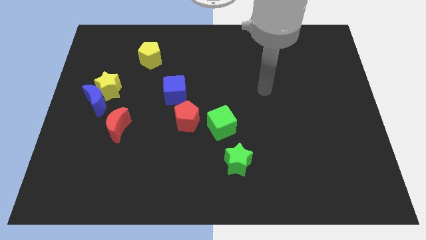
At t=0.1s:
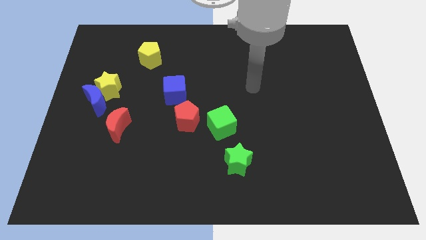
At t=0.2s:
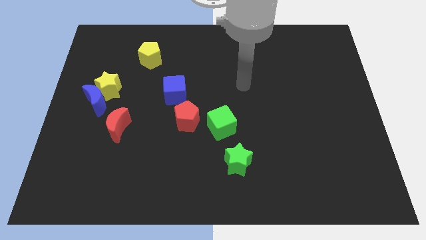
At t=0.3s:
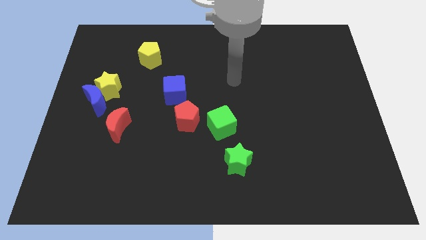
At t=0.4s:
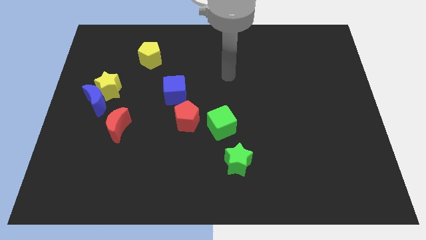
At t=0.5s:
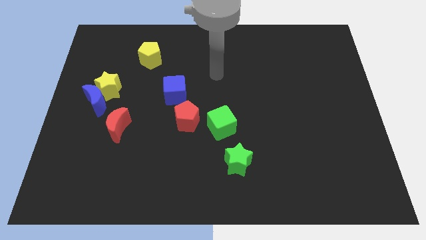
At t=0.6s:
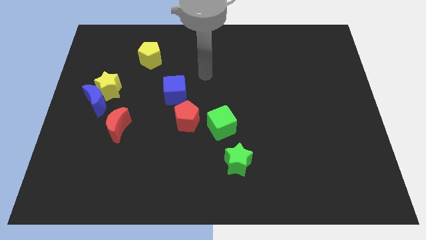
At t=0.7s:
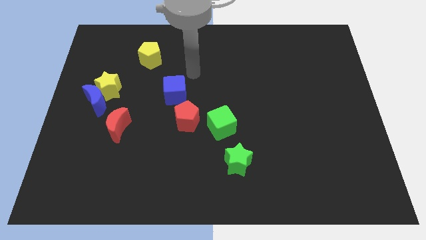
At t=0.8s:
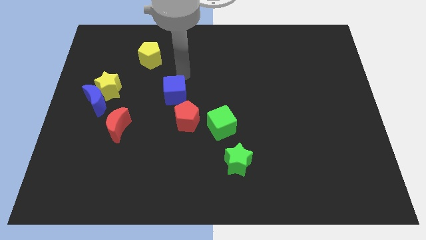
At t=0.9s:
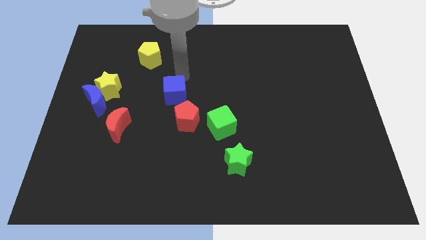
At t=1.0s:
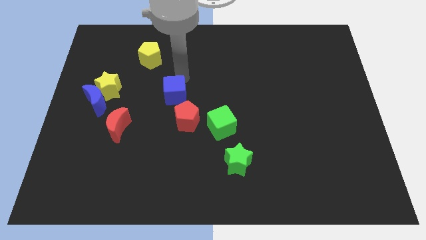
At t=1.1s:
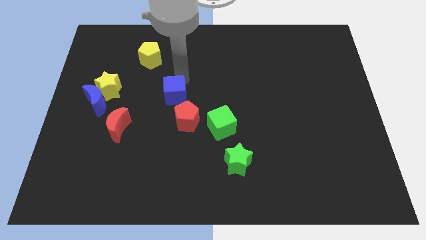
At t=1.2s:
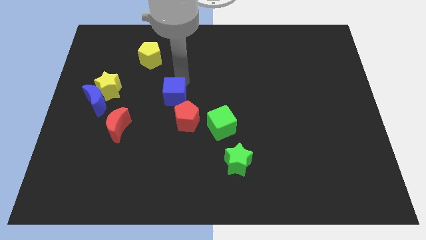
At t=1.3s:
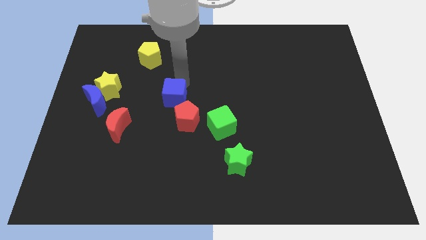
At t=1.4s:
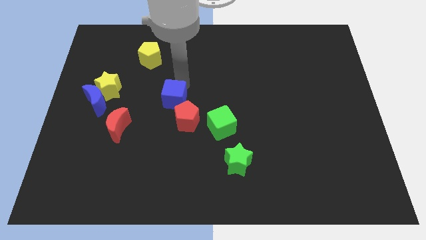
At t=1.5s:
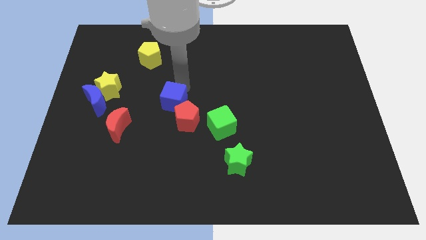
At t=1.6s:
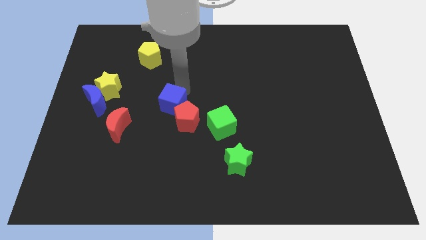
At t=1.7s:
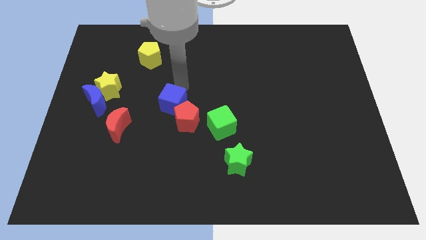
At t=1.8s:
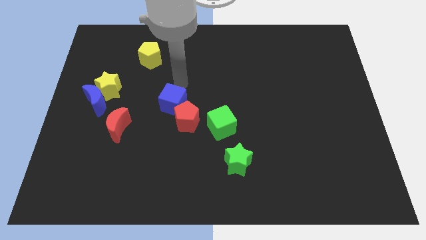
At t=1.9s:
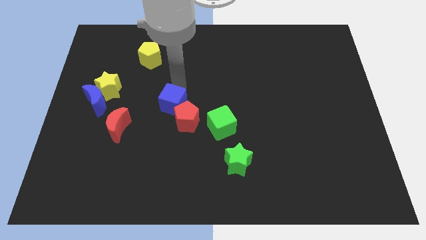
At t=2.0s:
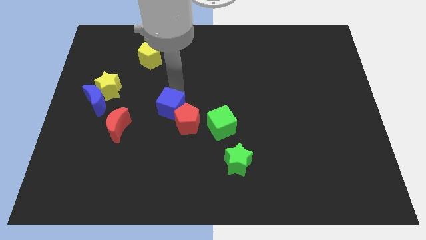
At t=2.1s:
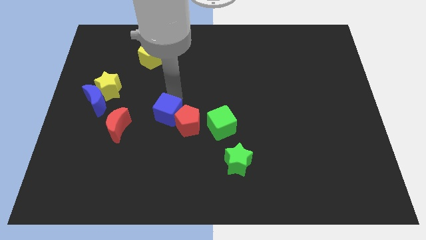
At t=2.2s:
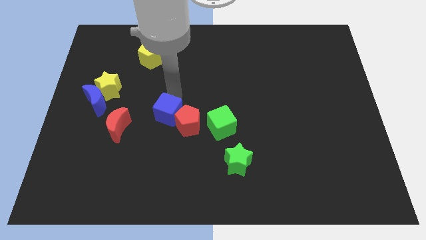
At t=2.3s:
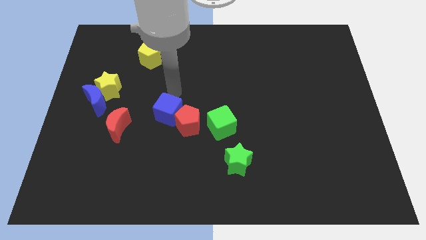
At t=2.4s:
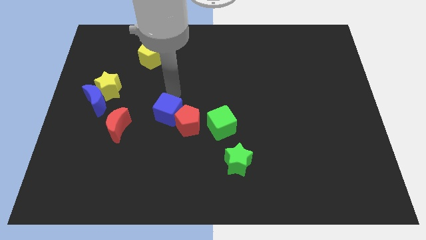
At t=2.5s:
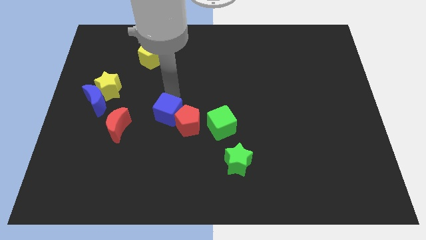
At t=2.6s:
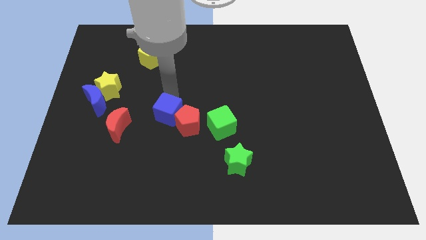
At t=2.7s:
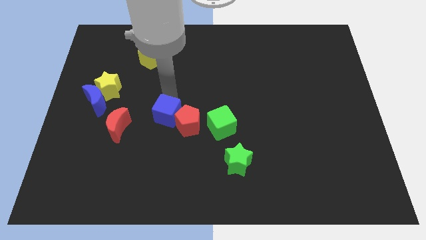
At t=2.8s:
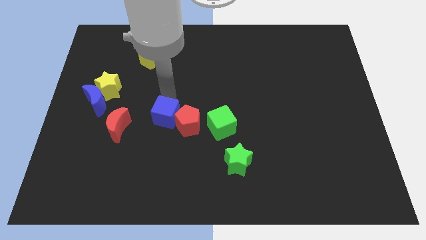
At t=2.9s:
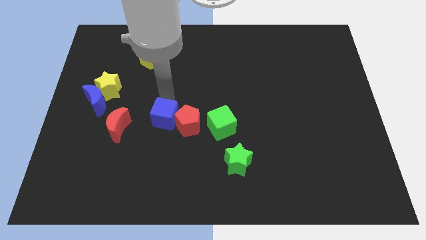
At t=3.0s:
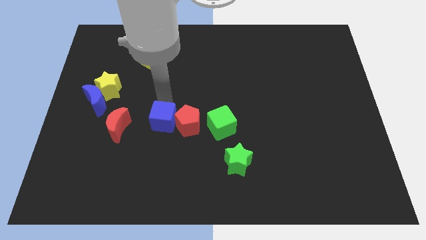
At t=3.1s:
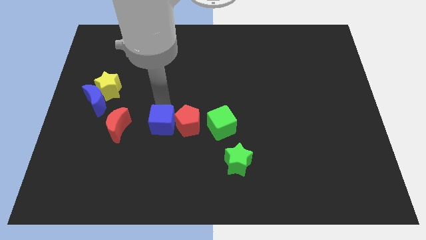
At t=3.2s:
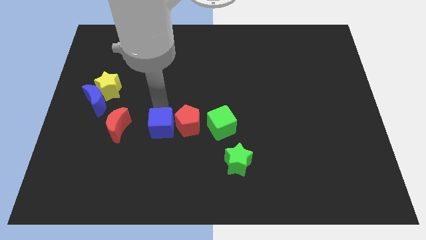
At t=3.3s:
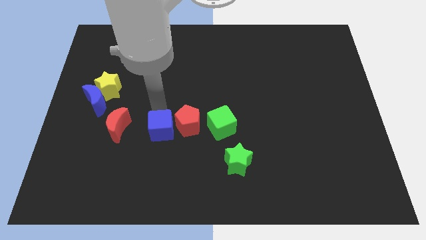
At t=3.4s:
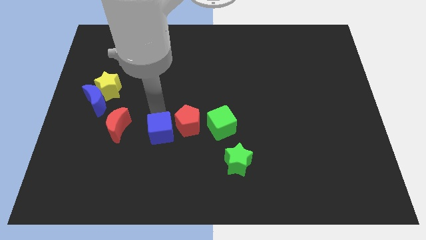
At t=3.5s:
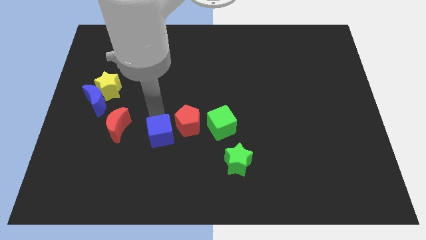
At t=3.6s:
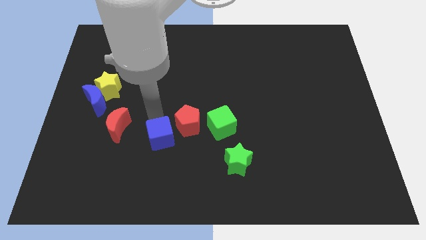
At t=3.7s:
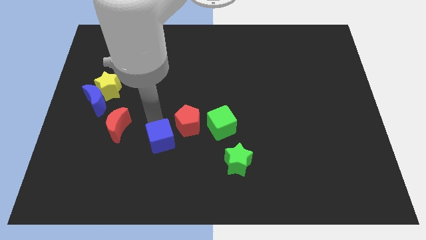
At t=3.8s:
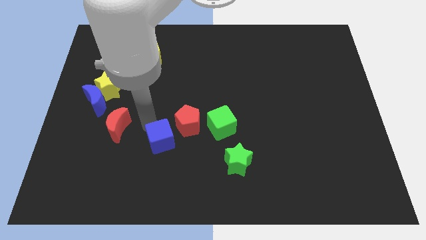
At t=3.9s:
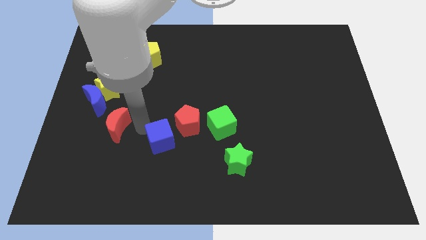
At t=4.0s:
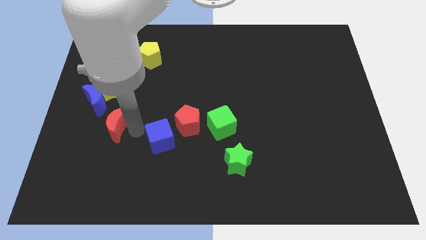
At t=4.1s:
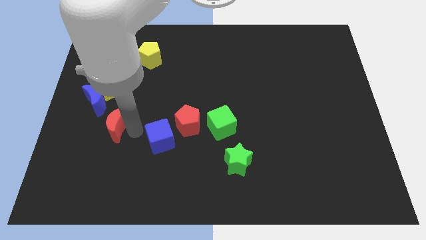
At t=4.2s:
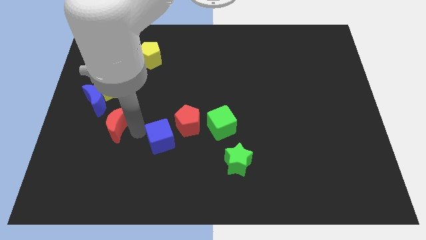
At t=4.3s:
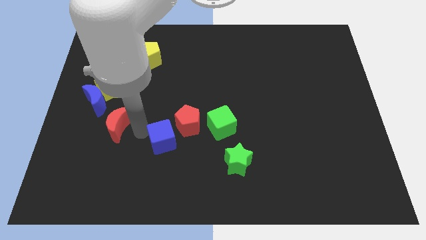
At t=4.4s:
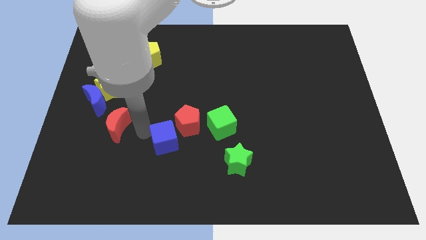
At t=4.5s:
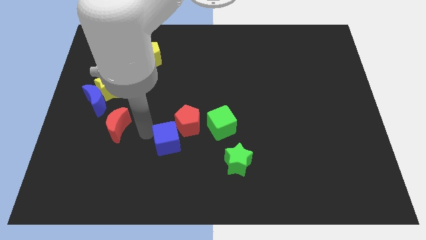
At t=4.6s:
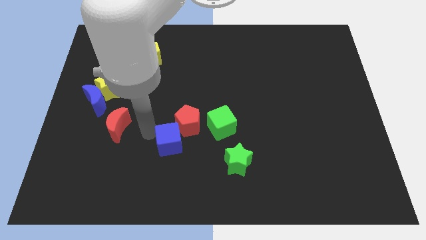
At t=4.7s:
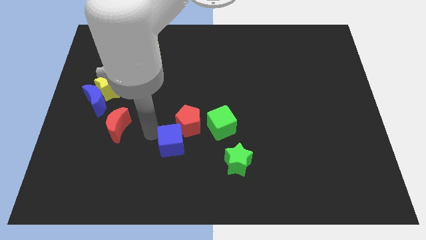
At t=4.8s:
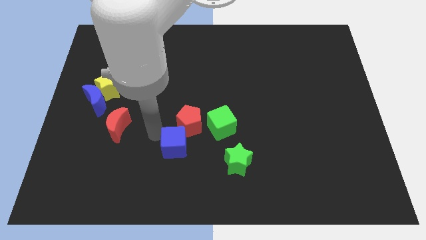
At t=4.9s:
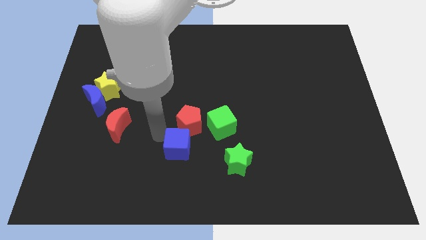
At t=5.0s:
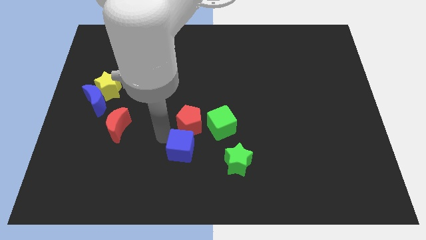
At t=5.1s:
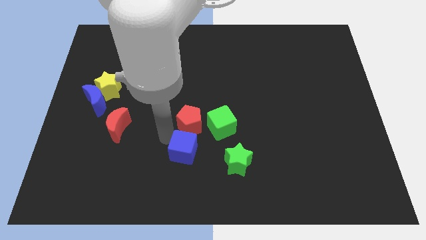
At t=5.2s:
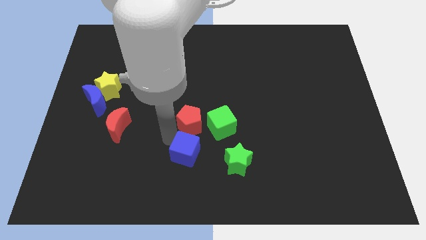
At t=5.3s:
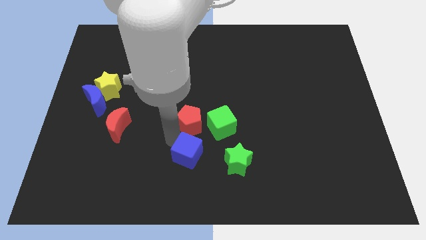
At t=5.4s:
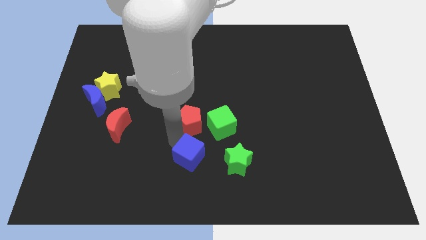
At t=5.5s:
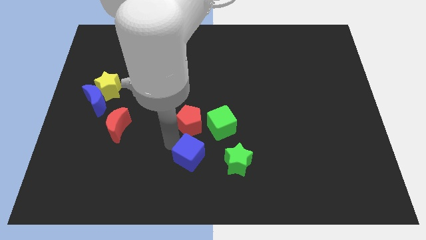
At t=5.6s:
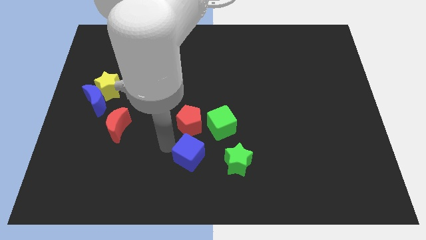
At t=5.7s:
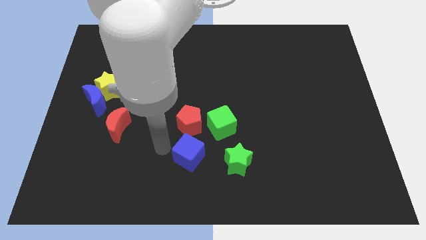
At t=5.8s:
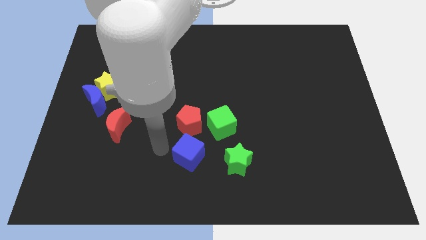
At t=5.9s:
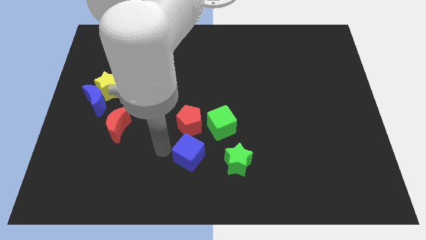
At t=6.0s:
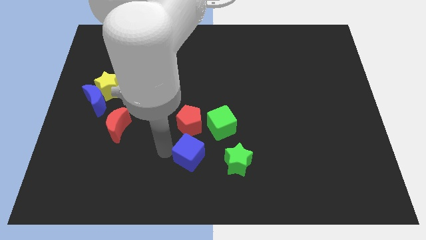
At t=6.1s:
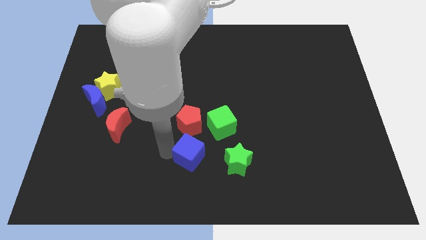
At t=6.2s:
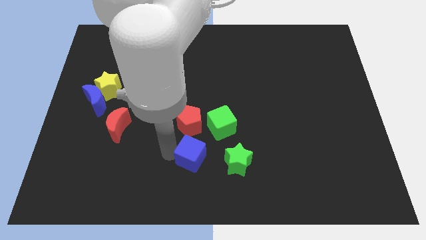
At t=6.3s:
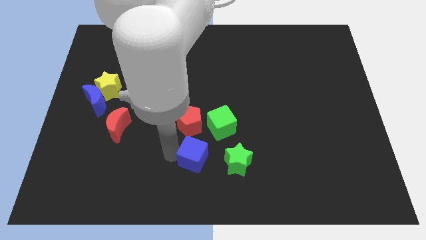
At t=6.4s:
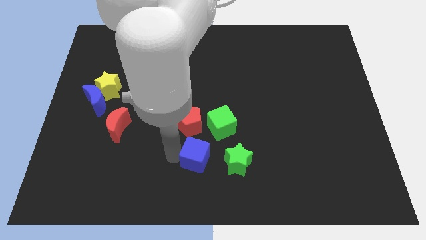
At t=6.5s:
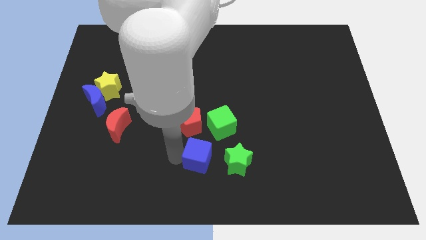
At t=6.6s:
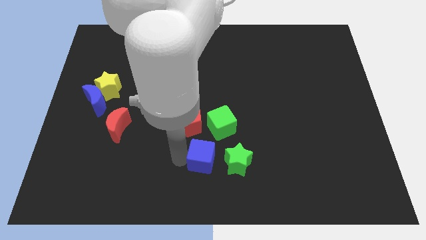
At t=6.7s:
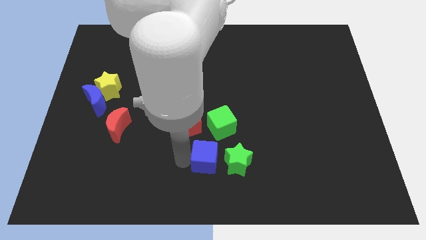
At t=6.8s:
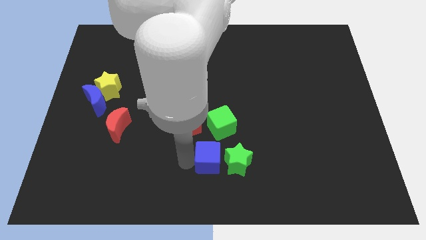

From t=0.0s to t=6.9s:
slide the blue cube to the green star

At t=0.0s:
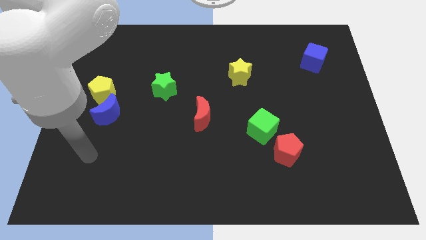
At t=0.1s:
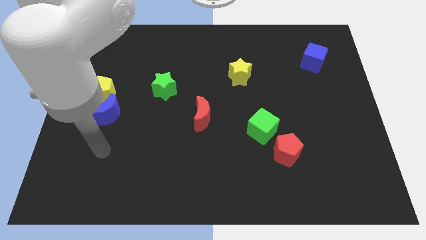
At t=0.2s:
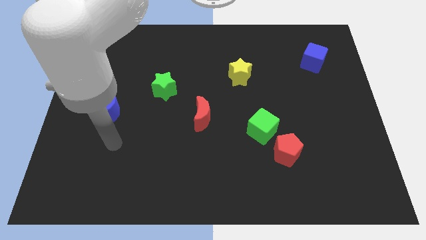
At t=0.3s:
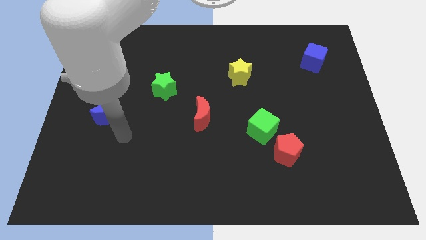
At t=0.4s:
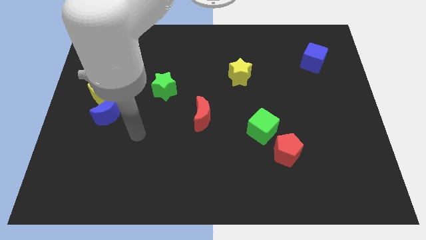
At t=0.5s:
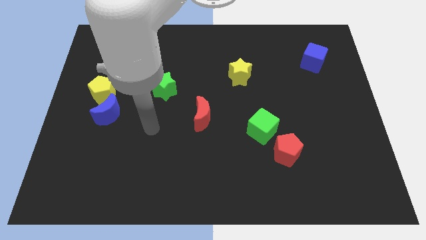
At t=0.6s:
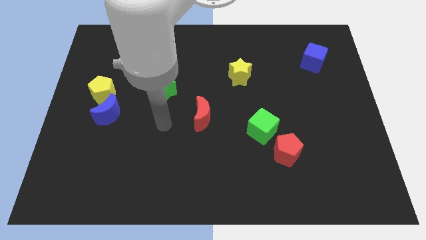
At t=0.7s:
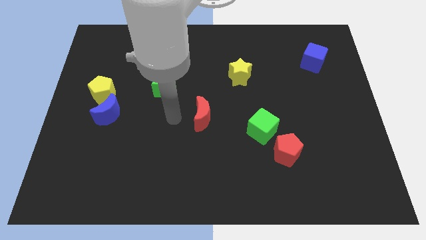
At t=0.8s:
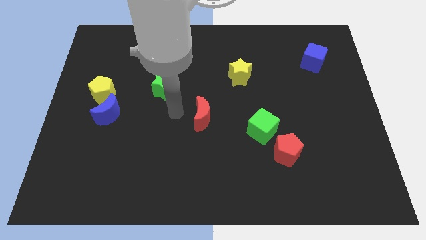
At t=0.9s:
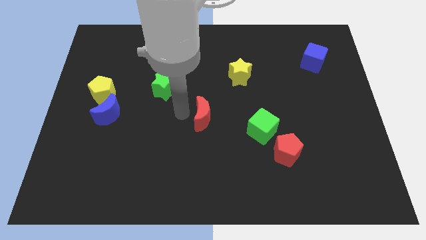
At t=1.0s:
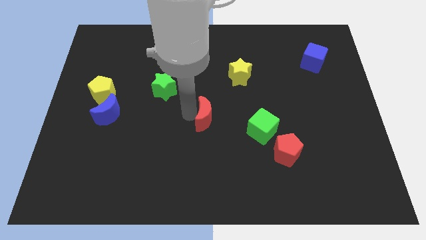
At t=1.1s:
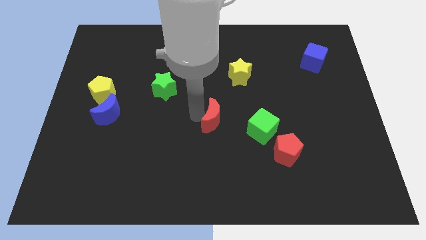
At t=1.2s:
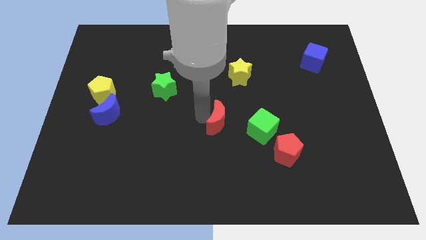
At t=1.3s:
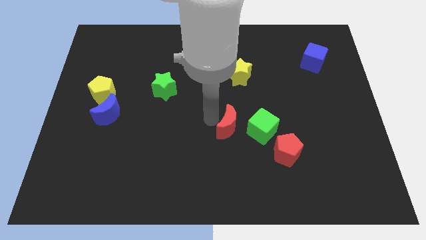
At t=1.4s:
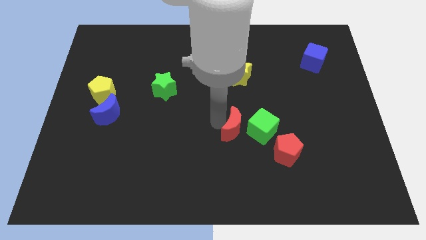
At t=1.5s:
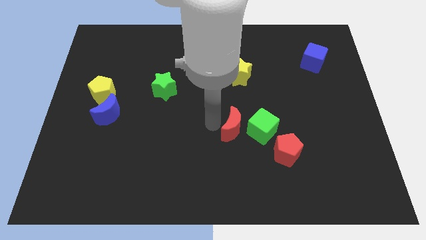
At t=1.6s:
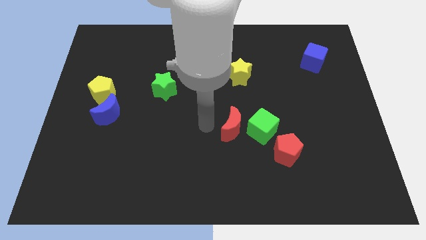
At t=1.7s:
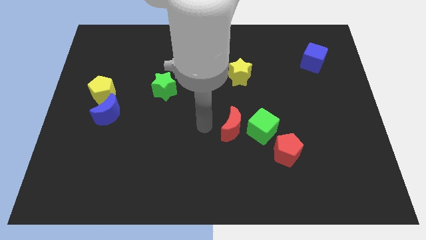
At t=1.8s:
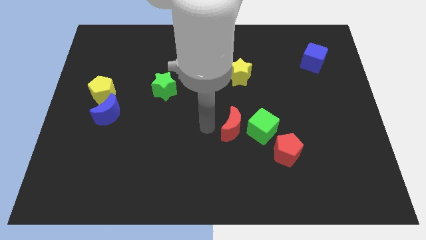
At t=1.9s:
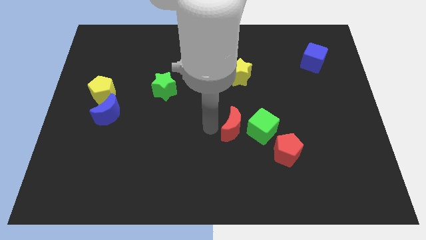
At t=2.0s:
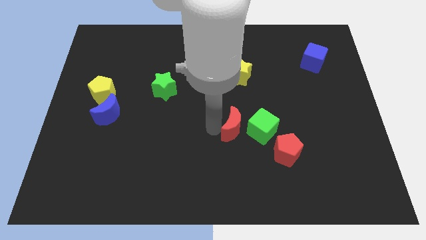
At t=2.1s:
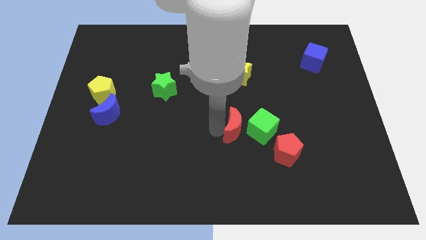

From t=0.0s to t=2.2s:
move the red moon close to the green cube
